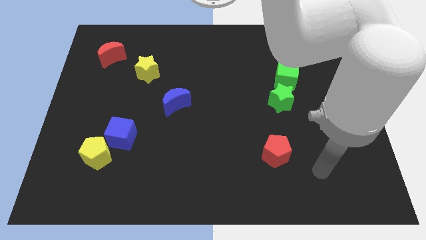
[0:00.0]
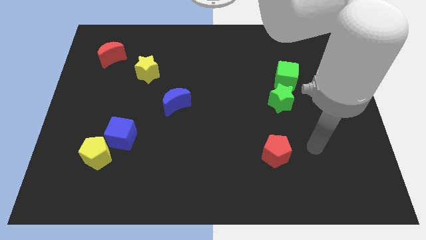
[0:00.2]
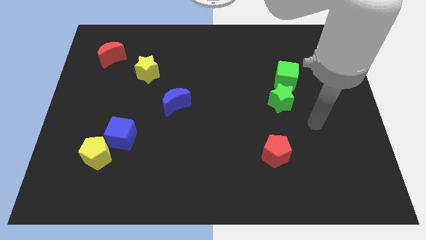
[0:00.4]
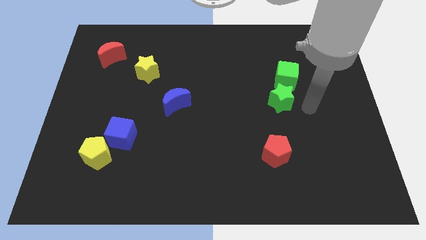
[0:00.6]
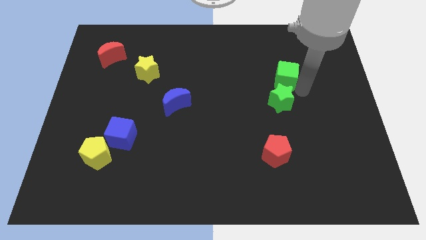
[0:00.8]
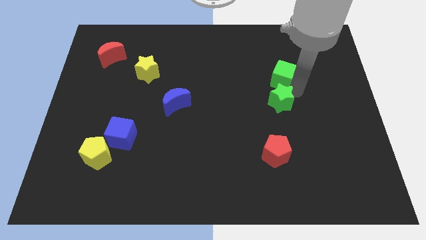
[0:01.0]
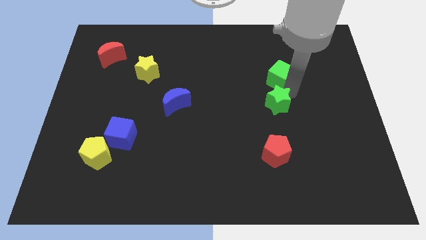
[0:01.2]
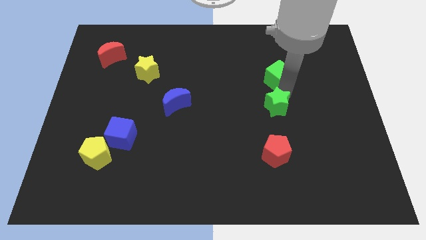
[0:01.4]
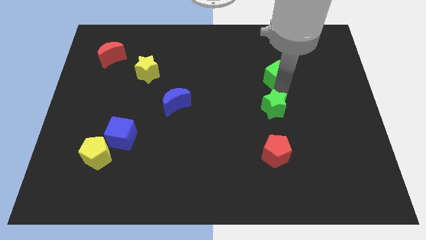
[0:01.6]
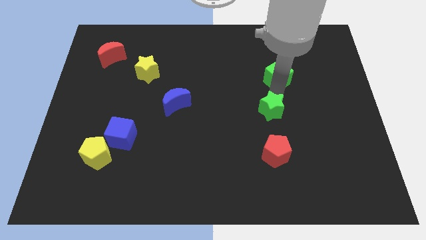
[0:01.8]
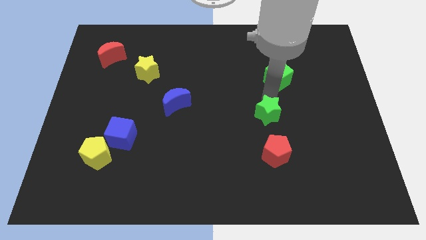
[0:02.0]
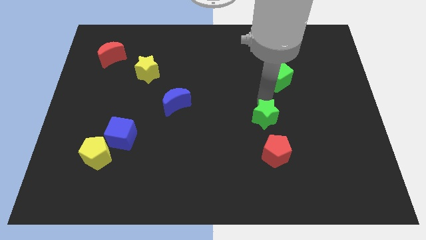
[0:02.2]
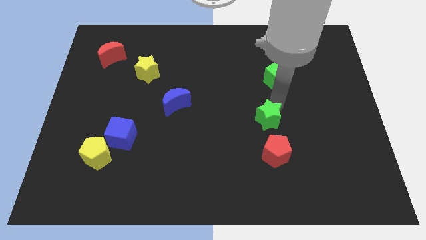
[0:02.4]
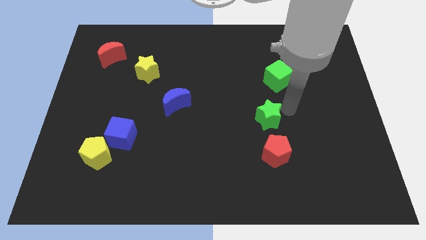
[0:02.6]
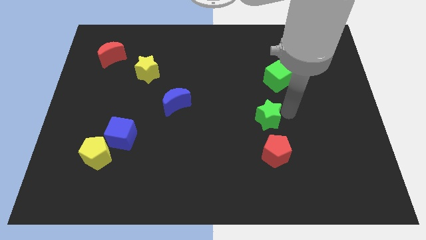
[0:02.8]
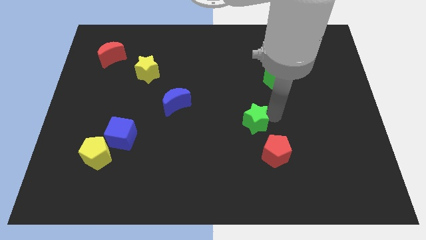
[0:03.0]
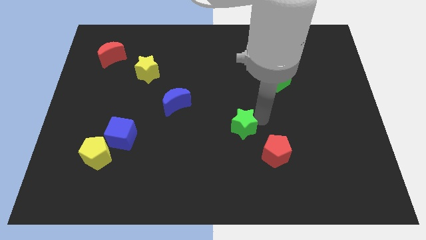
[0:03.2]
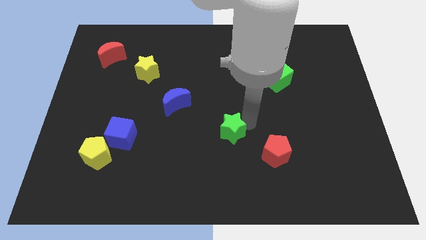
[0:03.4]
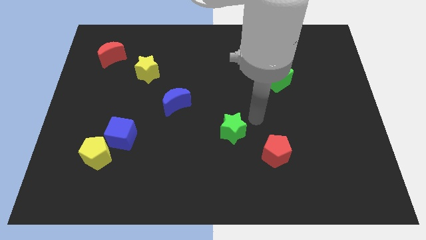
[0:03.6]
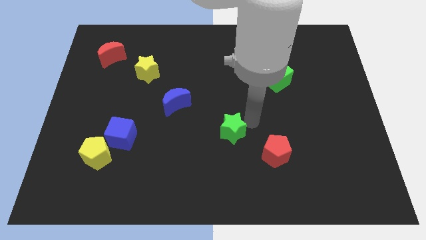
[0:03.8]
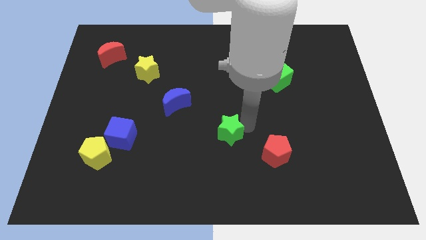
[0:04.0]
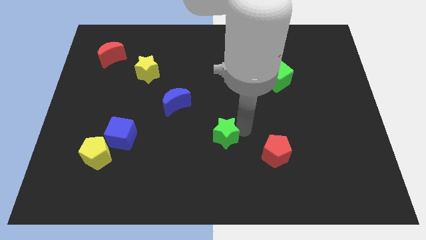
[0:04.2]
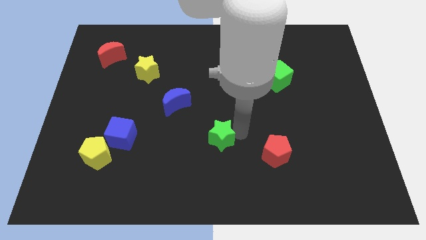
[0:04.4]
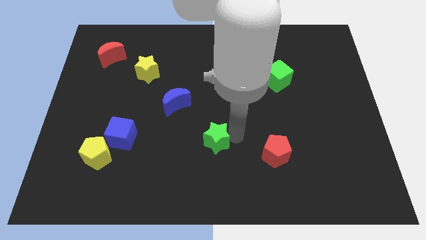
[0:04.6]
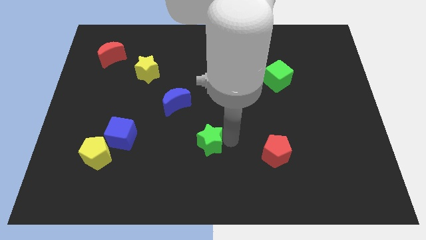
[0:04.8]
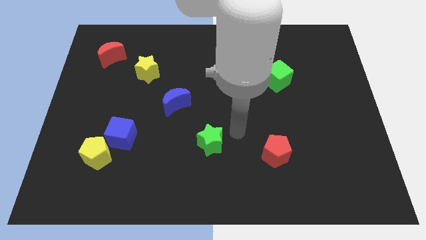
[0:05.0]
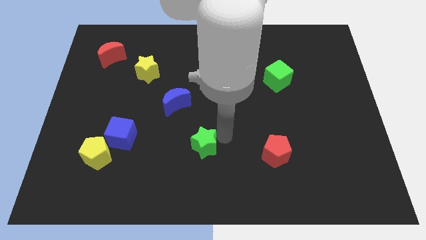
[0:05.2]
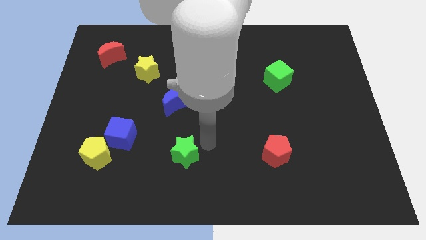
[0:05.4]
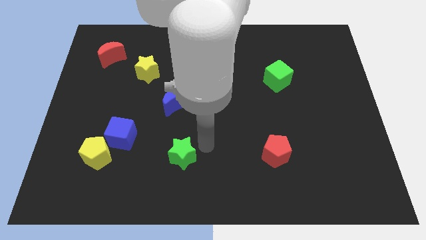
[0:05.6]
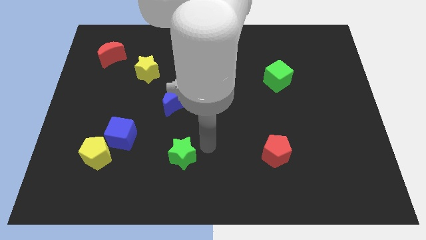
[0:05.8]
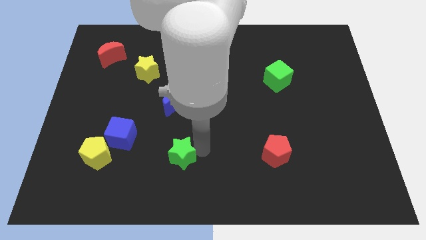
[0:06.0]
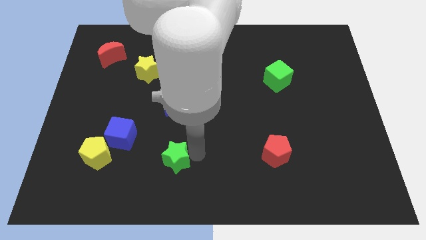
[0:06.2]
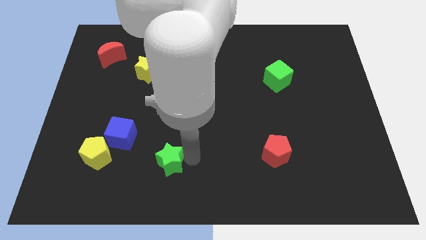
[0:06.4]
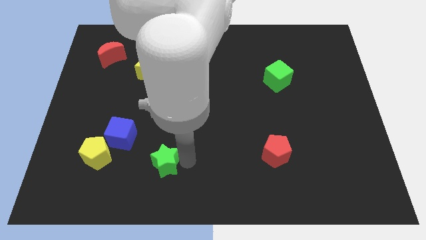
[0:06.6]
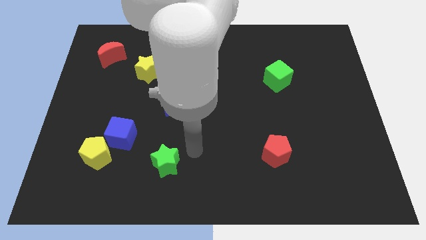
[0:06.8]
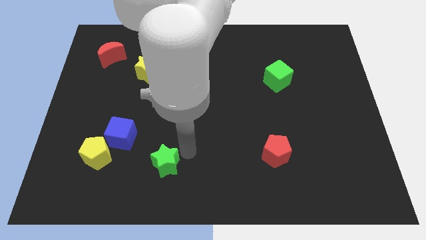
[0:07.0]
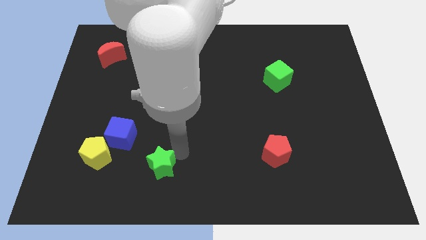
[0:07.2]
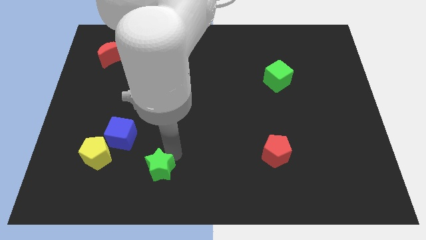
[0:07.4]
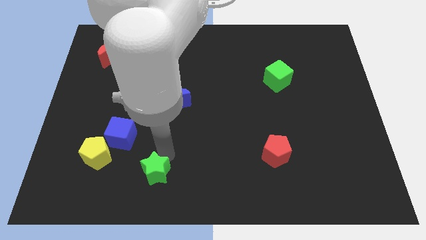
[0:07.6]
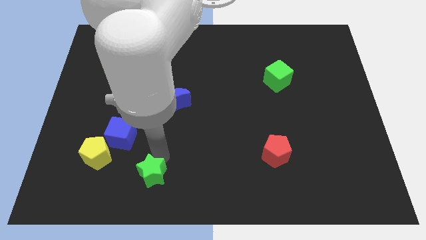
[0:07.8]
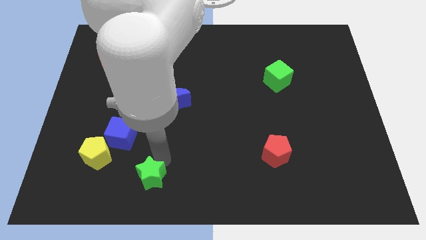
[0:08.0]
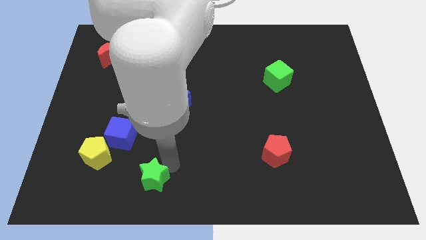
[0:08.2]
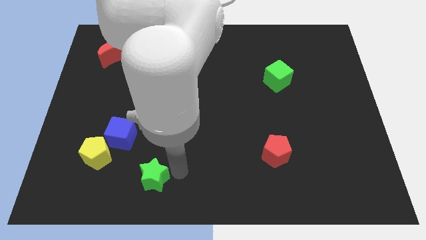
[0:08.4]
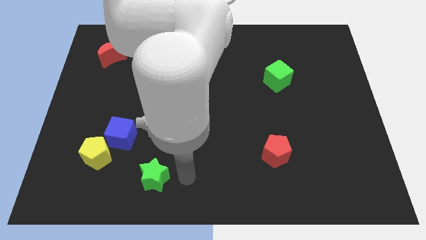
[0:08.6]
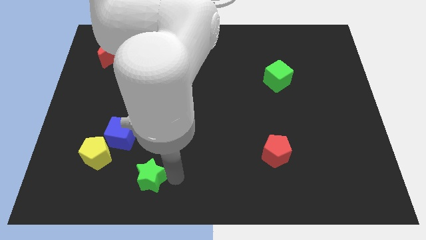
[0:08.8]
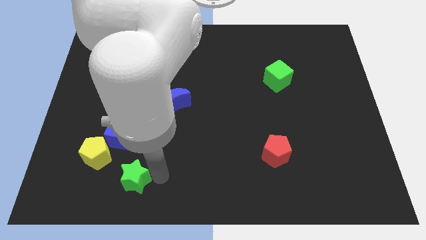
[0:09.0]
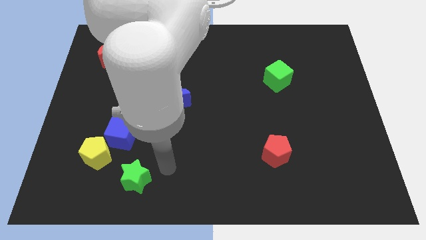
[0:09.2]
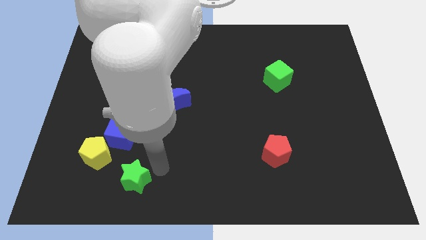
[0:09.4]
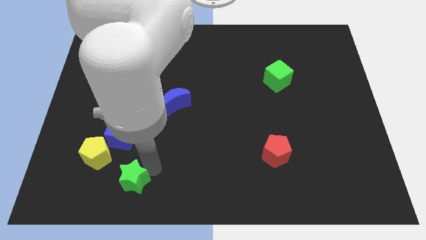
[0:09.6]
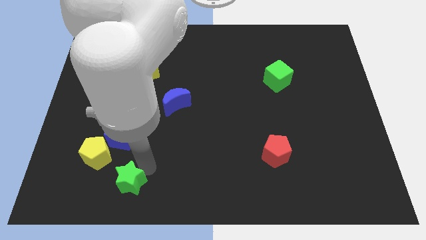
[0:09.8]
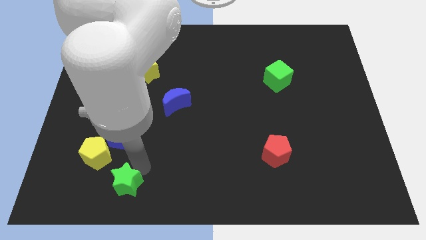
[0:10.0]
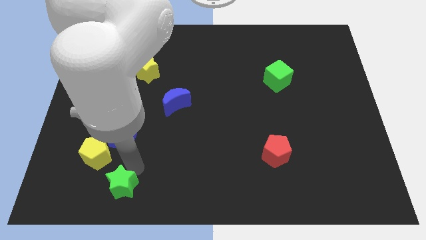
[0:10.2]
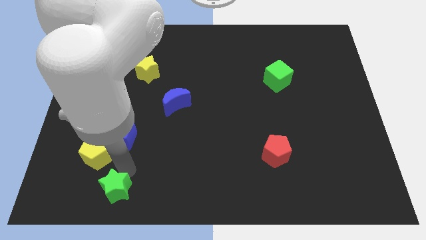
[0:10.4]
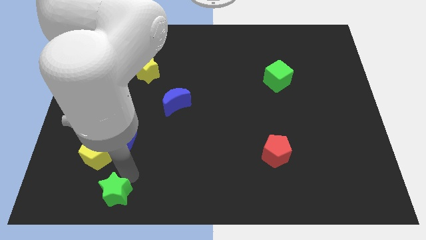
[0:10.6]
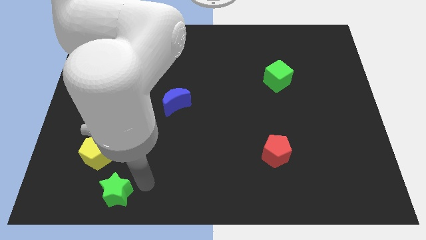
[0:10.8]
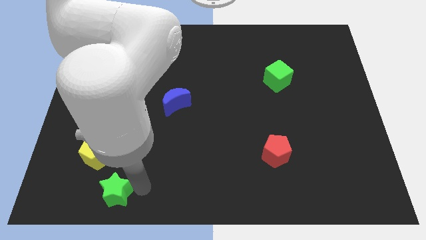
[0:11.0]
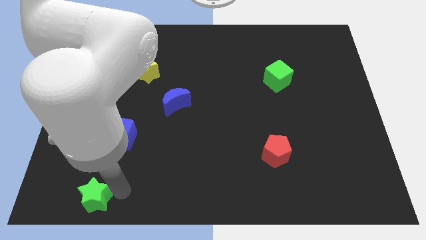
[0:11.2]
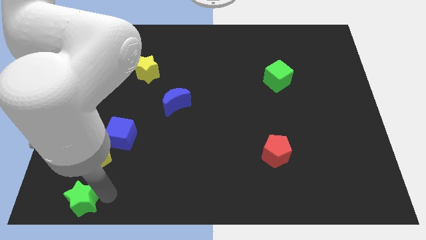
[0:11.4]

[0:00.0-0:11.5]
put the green star to the bottom left
